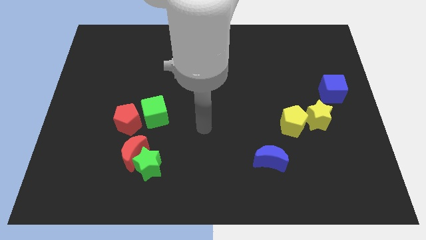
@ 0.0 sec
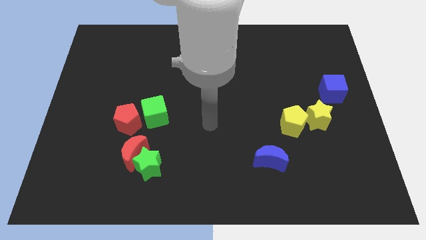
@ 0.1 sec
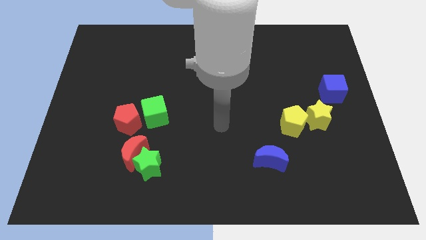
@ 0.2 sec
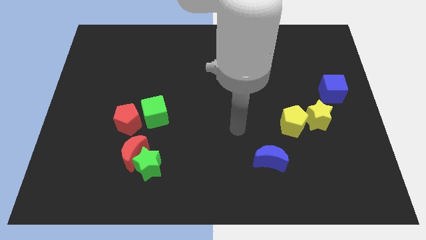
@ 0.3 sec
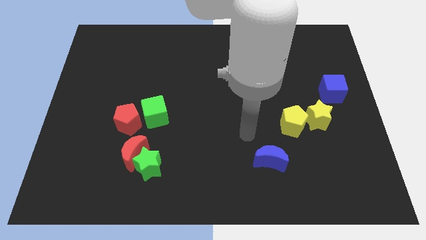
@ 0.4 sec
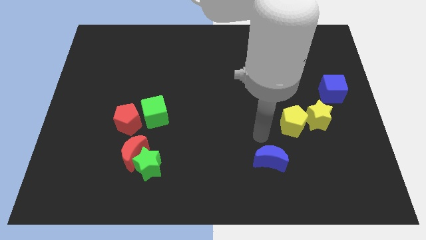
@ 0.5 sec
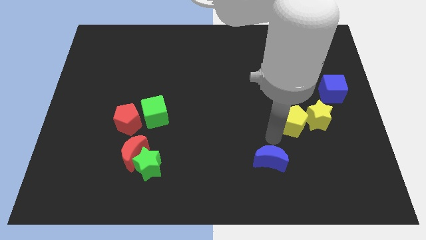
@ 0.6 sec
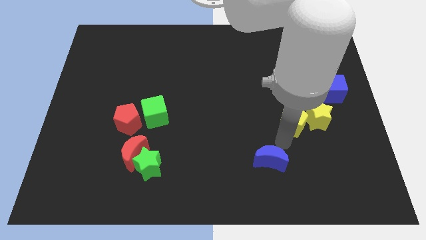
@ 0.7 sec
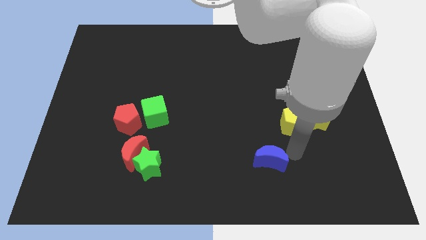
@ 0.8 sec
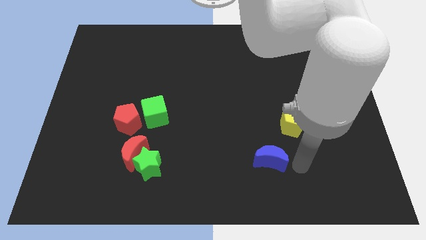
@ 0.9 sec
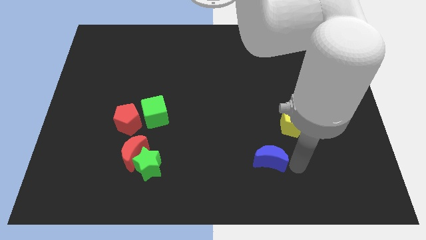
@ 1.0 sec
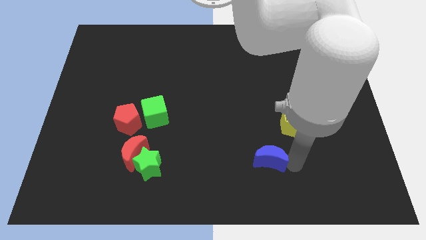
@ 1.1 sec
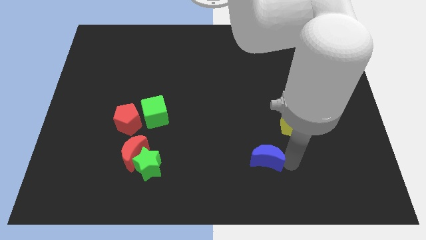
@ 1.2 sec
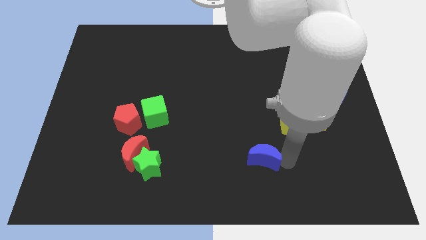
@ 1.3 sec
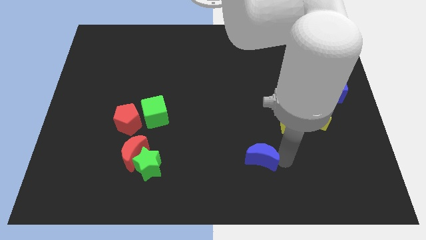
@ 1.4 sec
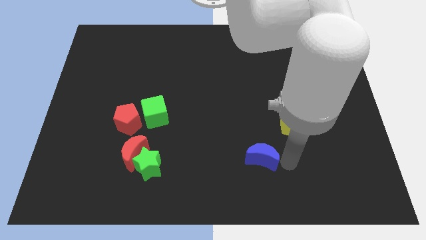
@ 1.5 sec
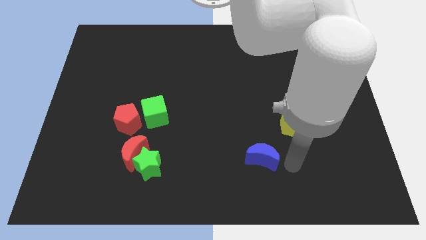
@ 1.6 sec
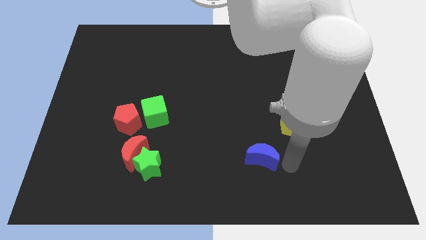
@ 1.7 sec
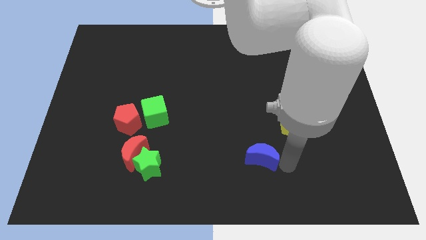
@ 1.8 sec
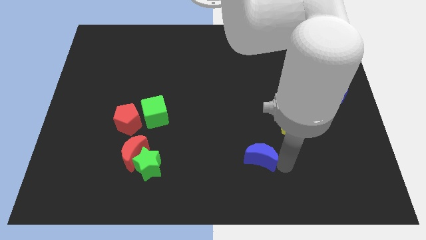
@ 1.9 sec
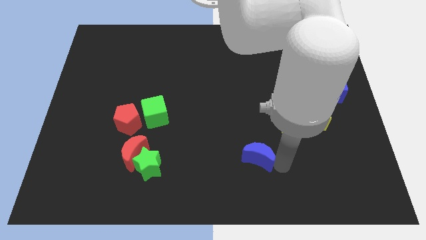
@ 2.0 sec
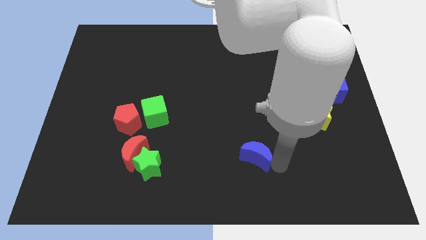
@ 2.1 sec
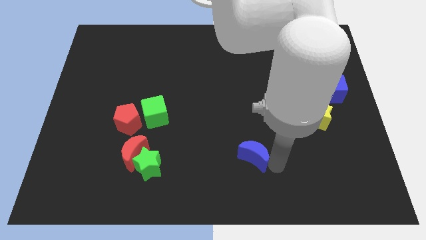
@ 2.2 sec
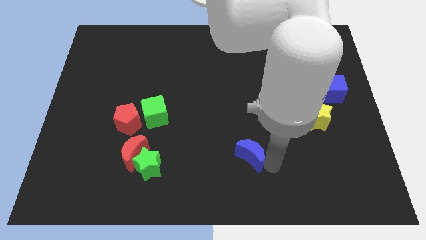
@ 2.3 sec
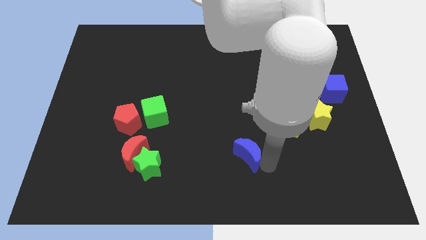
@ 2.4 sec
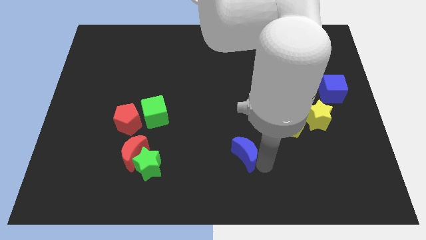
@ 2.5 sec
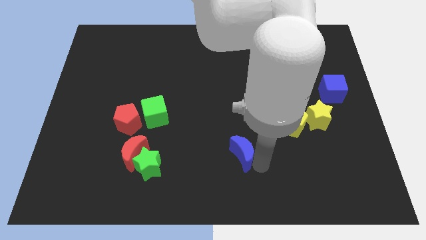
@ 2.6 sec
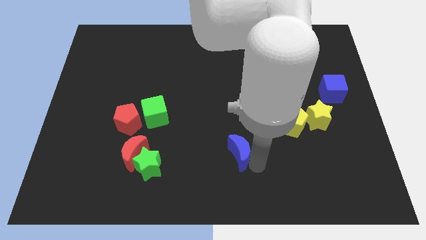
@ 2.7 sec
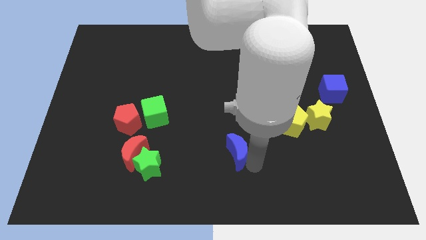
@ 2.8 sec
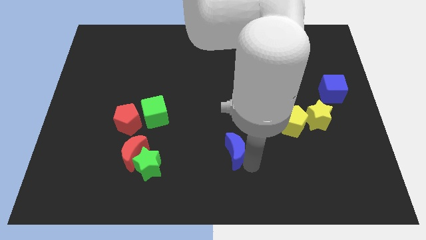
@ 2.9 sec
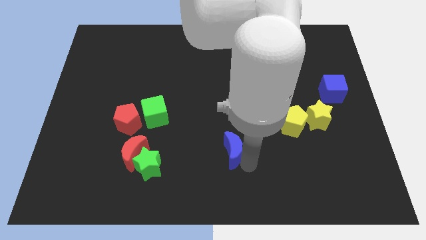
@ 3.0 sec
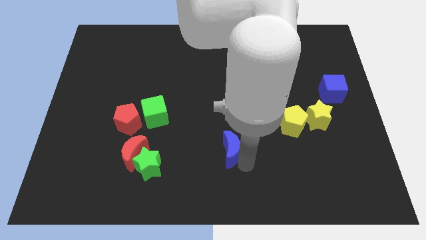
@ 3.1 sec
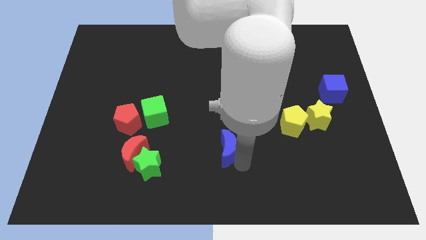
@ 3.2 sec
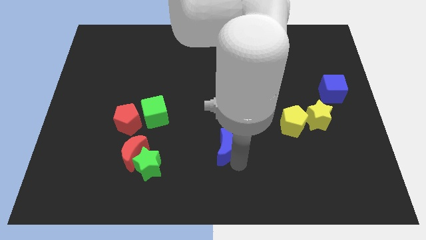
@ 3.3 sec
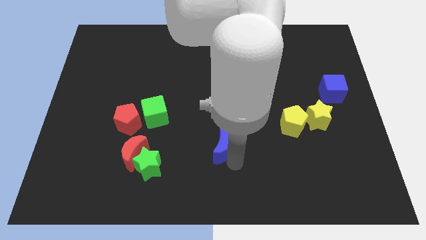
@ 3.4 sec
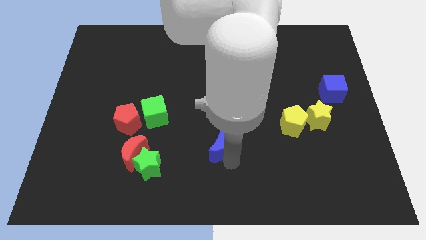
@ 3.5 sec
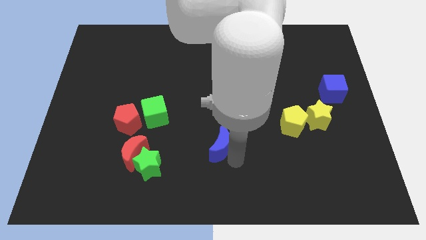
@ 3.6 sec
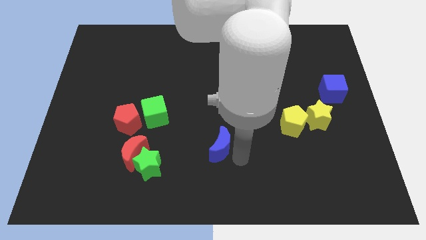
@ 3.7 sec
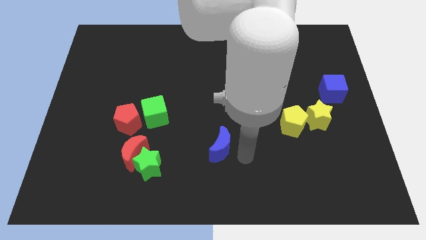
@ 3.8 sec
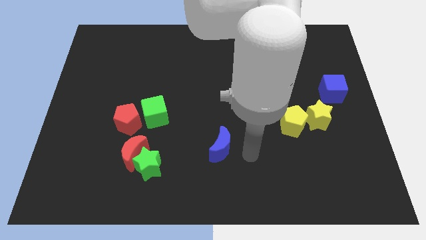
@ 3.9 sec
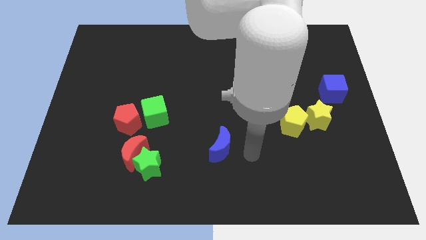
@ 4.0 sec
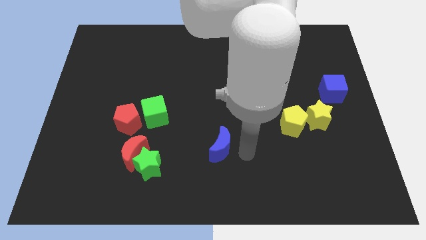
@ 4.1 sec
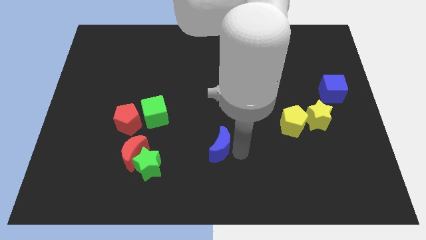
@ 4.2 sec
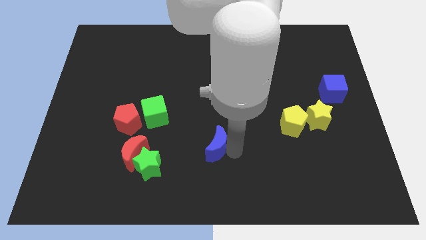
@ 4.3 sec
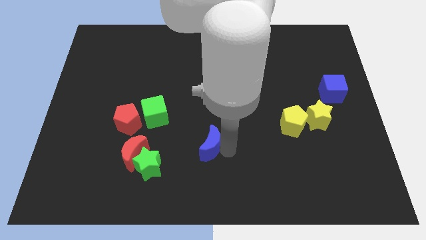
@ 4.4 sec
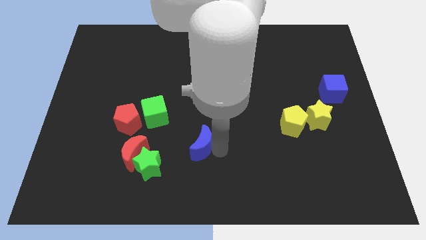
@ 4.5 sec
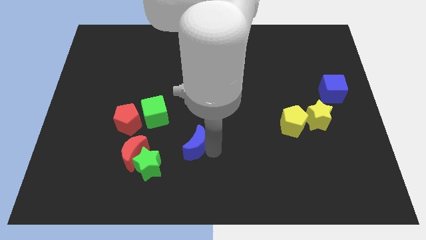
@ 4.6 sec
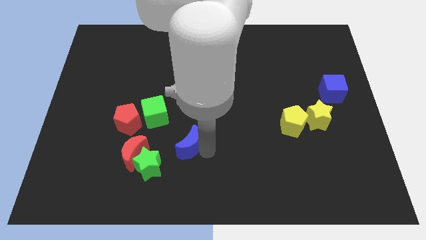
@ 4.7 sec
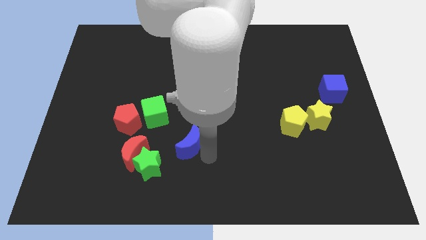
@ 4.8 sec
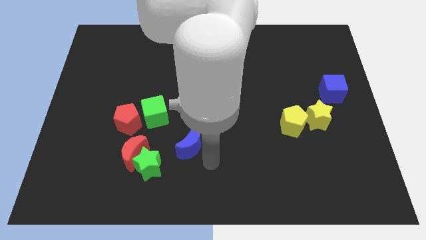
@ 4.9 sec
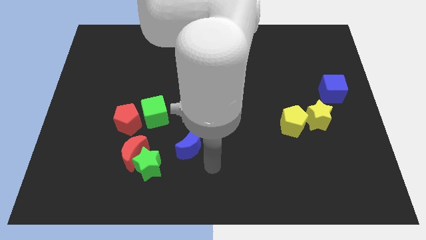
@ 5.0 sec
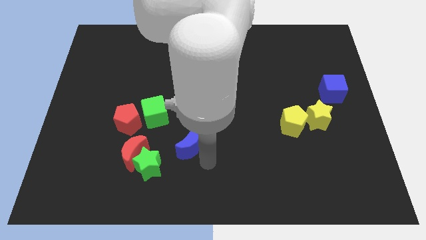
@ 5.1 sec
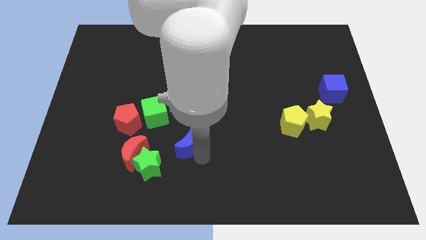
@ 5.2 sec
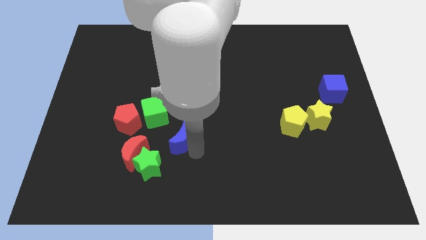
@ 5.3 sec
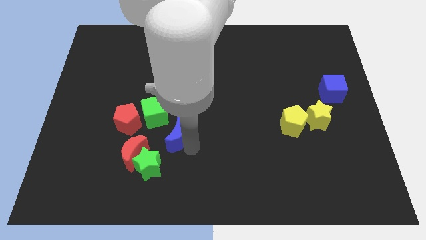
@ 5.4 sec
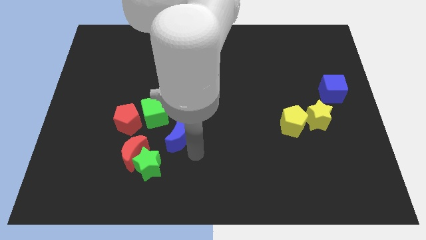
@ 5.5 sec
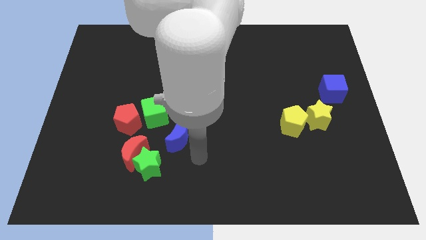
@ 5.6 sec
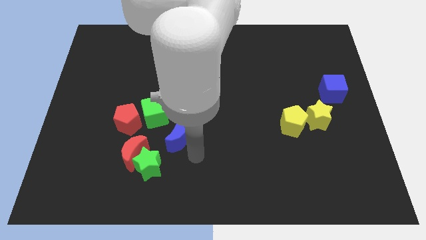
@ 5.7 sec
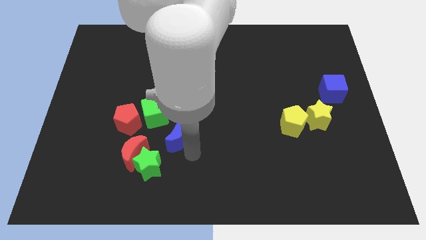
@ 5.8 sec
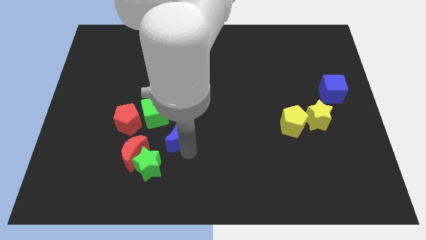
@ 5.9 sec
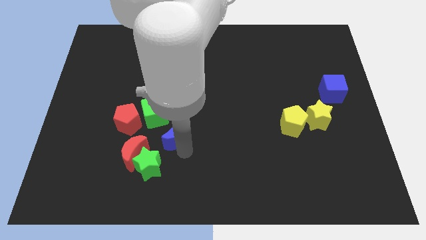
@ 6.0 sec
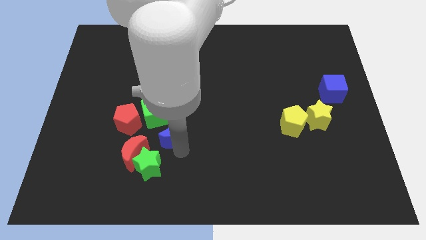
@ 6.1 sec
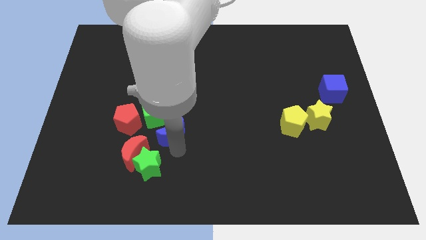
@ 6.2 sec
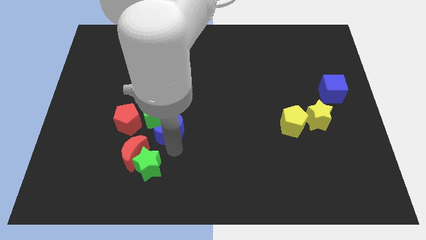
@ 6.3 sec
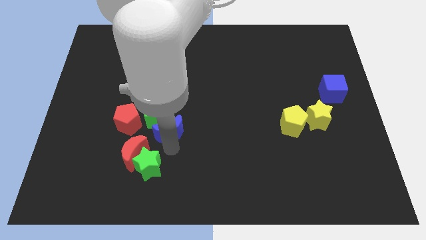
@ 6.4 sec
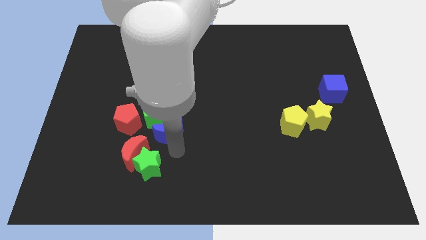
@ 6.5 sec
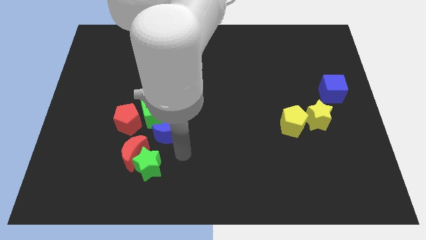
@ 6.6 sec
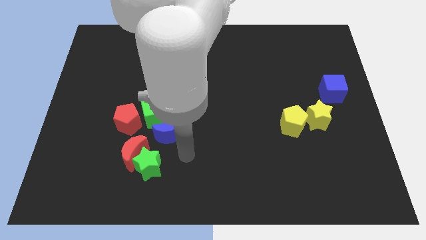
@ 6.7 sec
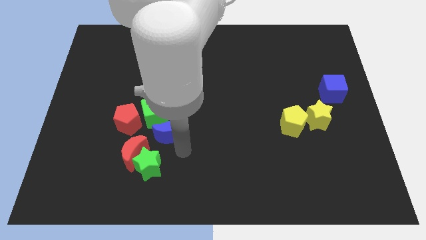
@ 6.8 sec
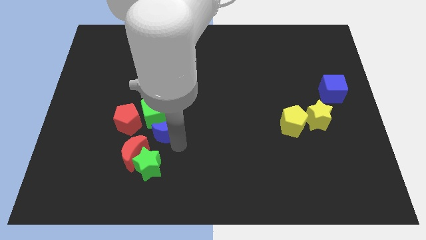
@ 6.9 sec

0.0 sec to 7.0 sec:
move the blue moon close to the green cube

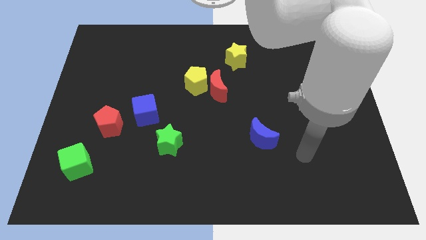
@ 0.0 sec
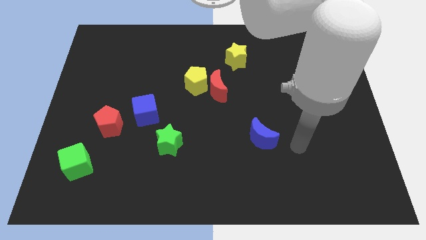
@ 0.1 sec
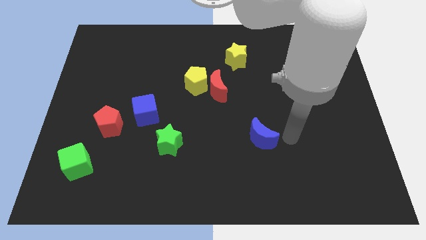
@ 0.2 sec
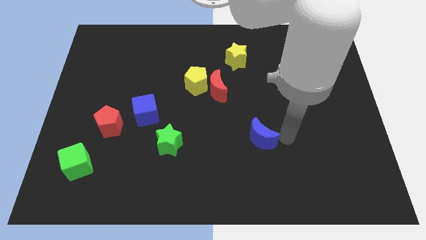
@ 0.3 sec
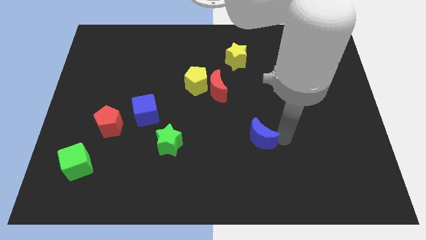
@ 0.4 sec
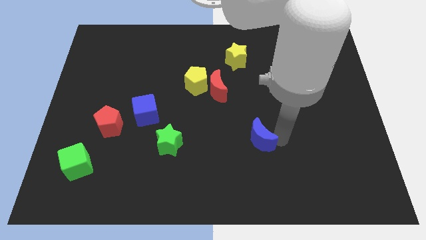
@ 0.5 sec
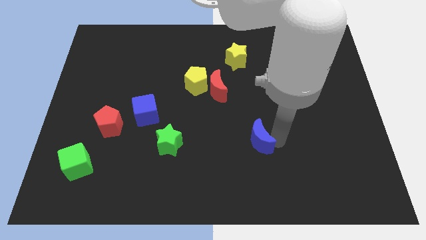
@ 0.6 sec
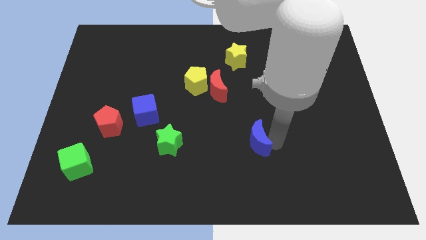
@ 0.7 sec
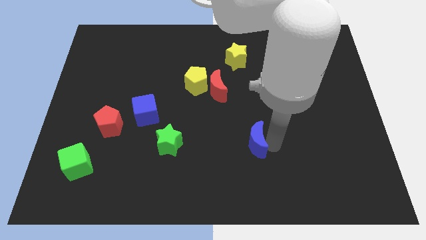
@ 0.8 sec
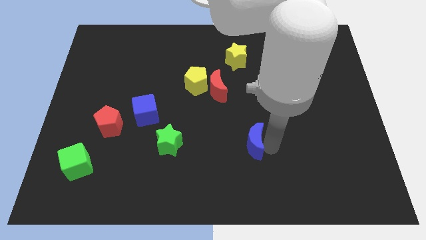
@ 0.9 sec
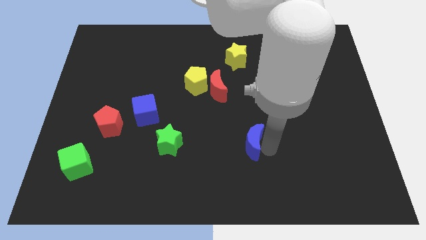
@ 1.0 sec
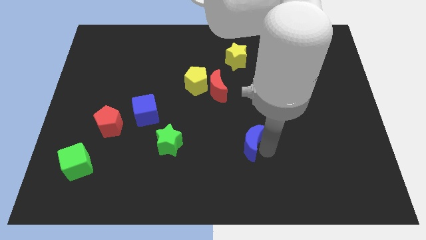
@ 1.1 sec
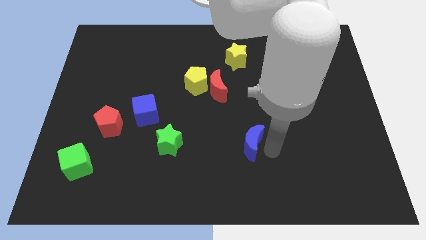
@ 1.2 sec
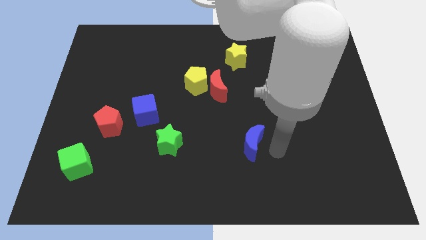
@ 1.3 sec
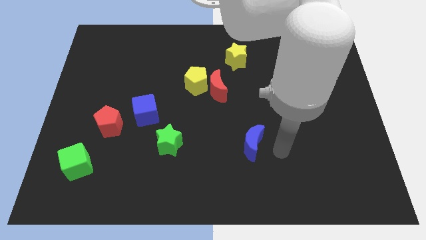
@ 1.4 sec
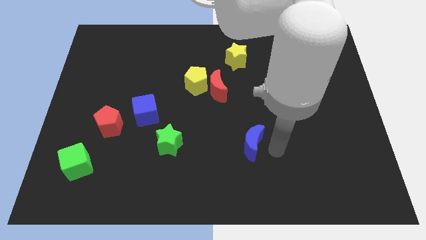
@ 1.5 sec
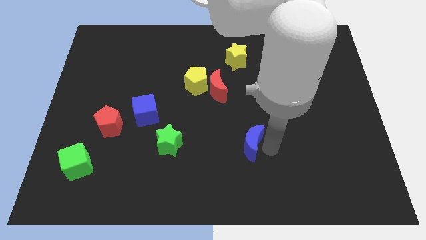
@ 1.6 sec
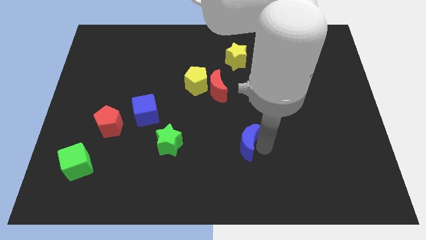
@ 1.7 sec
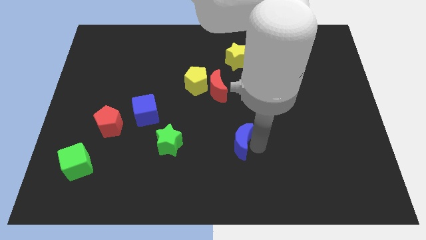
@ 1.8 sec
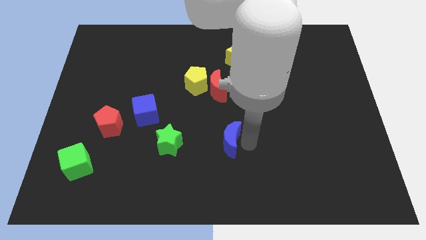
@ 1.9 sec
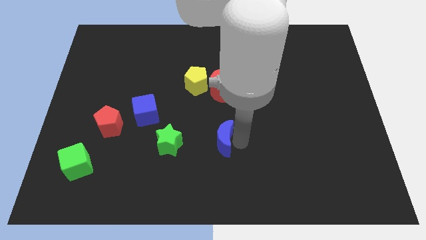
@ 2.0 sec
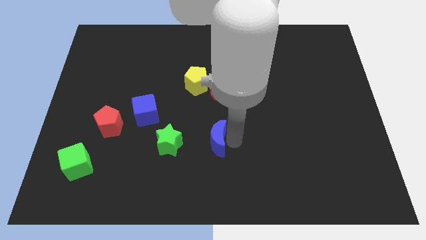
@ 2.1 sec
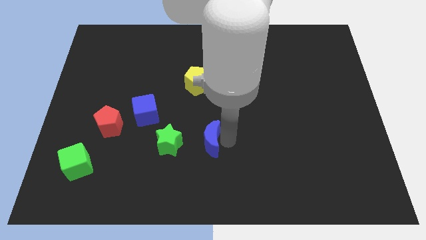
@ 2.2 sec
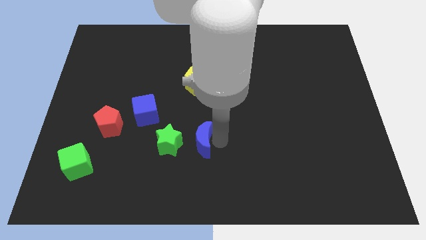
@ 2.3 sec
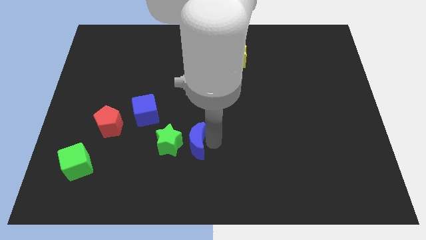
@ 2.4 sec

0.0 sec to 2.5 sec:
push the blue moon towards the green star
